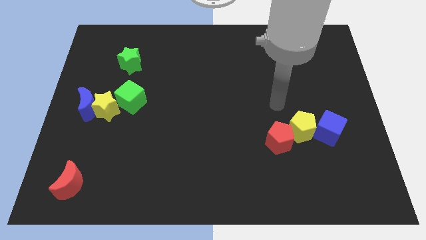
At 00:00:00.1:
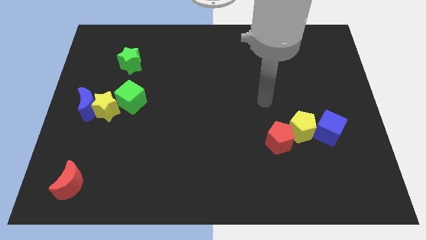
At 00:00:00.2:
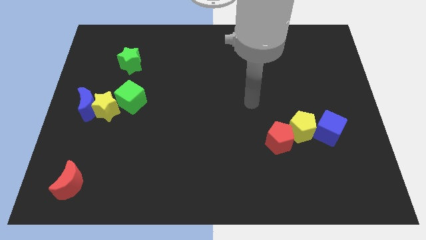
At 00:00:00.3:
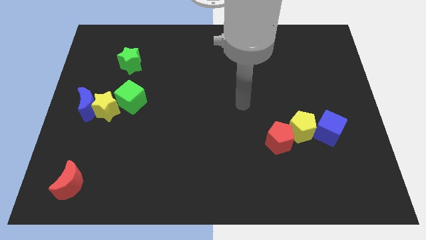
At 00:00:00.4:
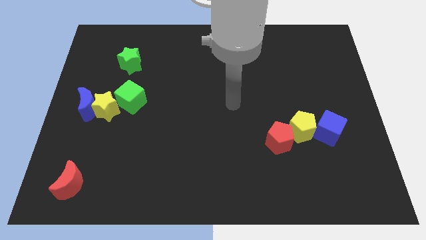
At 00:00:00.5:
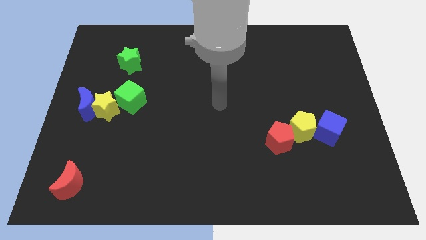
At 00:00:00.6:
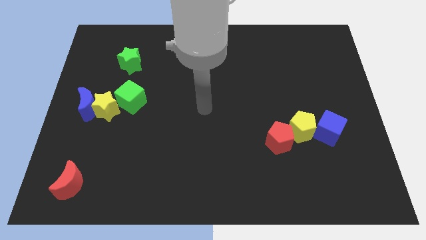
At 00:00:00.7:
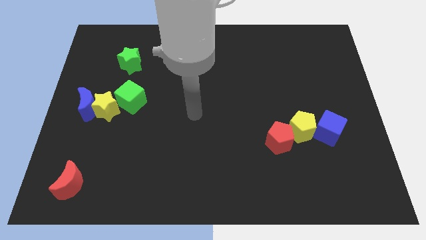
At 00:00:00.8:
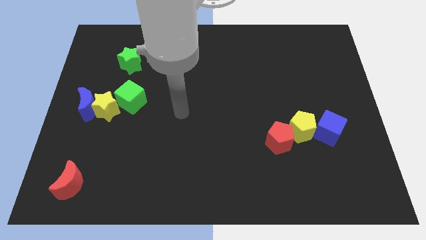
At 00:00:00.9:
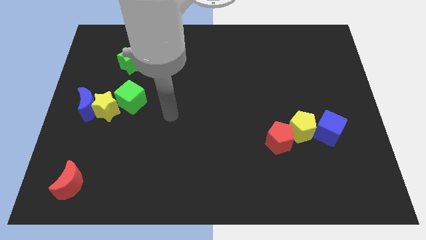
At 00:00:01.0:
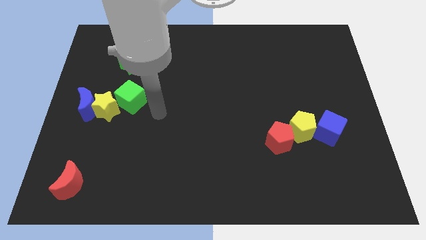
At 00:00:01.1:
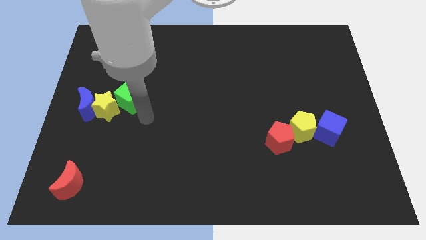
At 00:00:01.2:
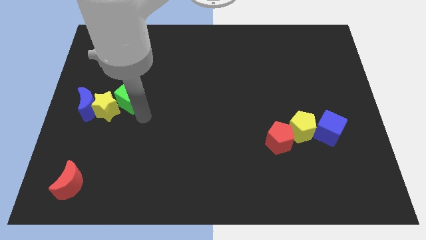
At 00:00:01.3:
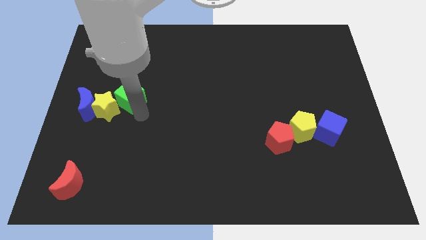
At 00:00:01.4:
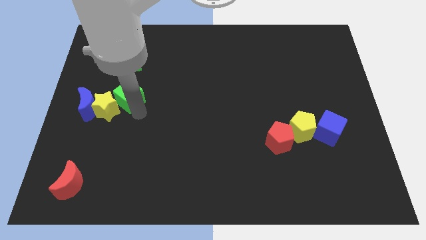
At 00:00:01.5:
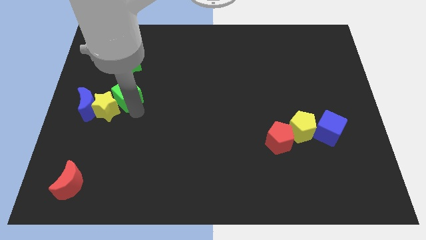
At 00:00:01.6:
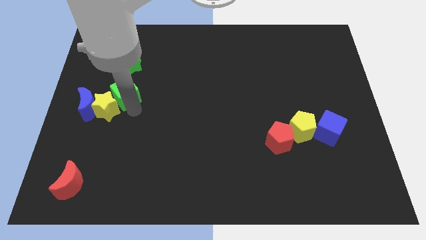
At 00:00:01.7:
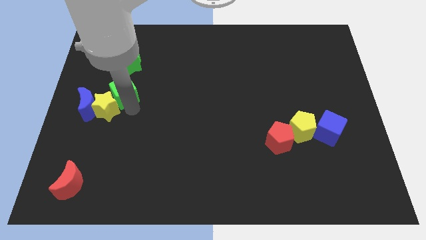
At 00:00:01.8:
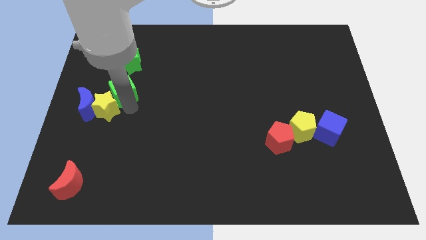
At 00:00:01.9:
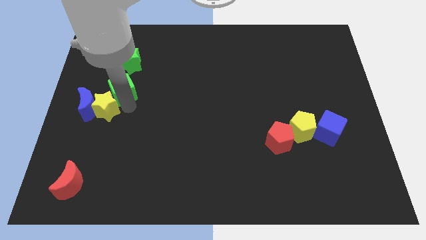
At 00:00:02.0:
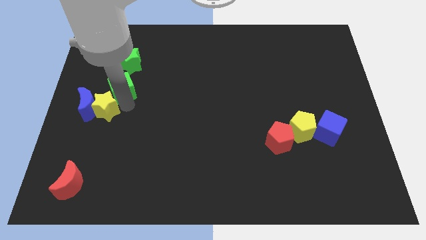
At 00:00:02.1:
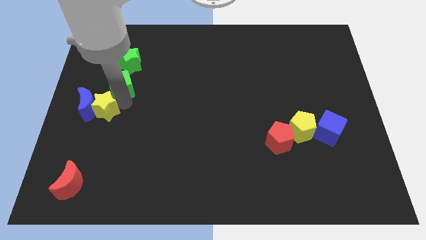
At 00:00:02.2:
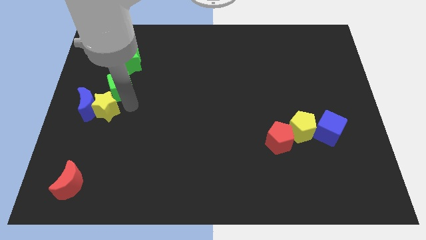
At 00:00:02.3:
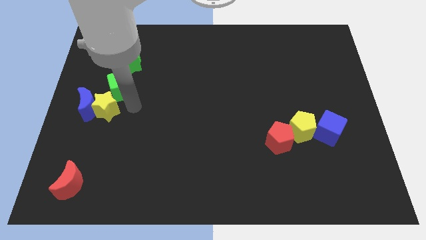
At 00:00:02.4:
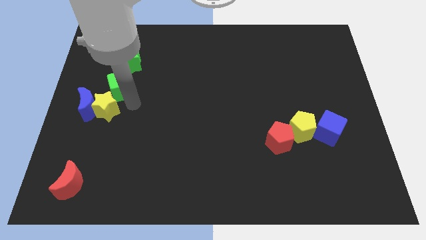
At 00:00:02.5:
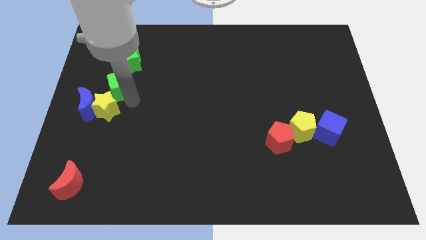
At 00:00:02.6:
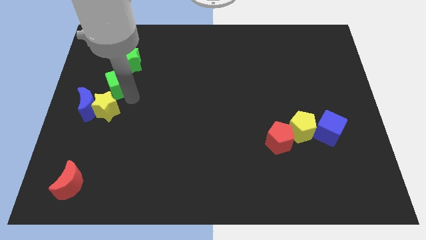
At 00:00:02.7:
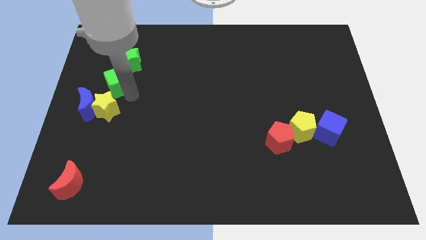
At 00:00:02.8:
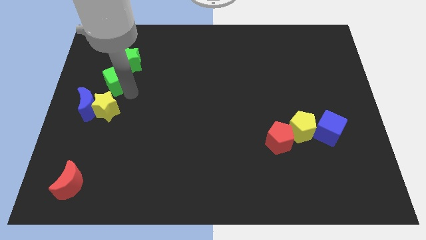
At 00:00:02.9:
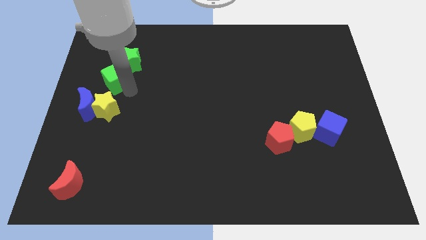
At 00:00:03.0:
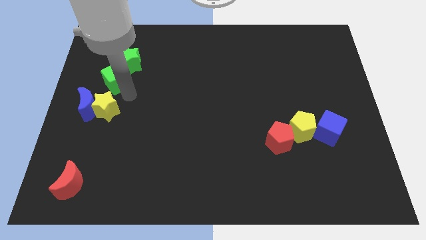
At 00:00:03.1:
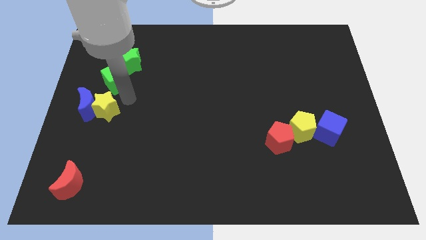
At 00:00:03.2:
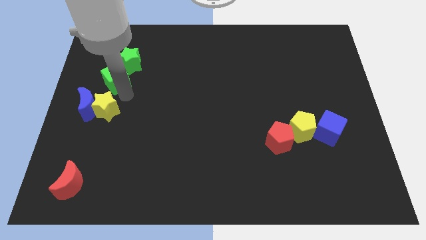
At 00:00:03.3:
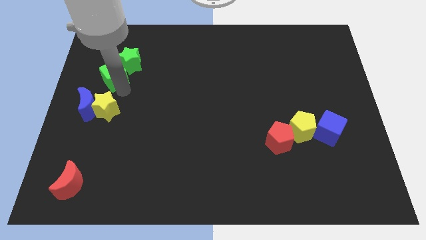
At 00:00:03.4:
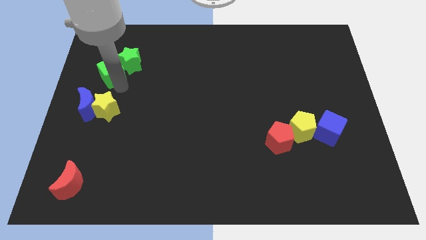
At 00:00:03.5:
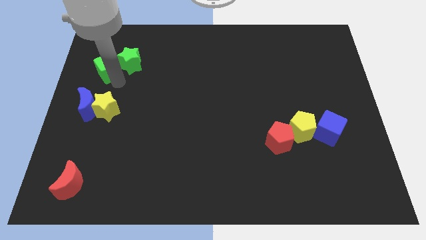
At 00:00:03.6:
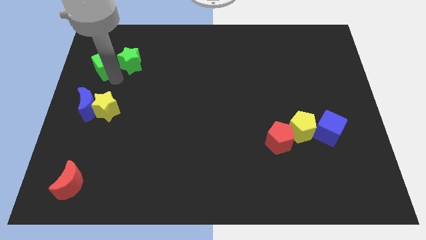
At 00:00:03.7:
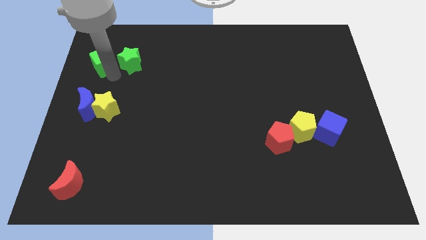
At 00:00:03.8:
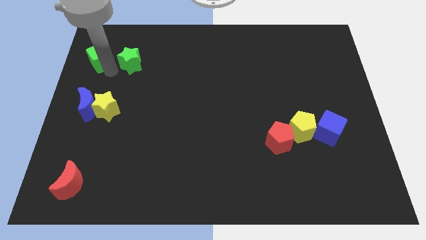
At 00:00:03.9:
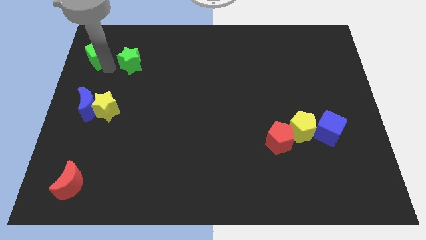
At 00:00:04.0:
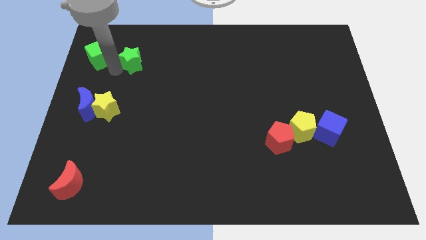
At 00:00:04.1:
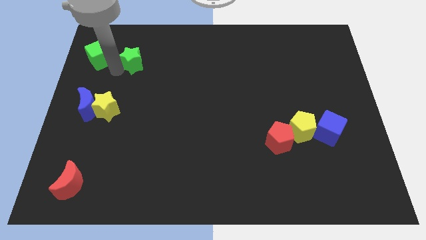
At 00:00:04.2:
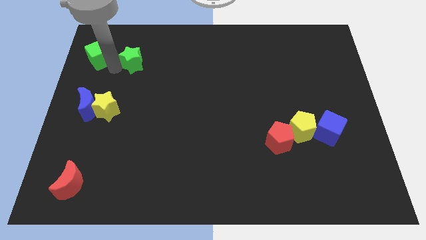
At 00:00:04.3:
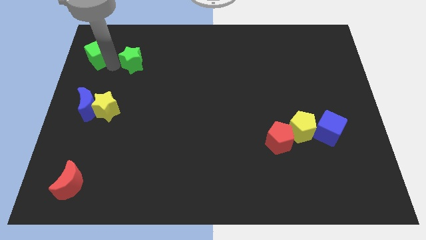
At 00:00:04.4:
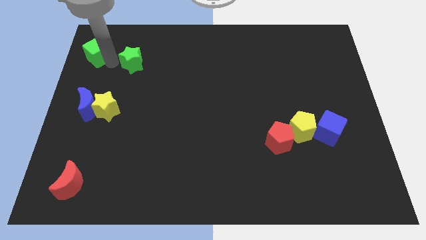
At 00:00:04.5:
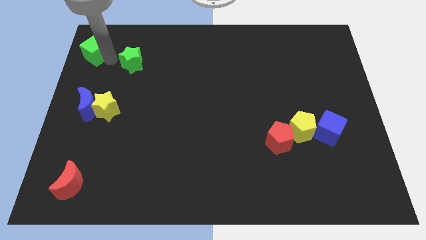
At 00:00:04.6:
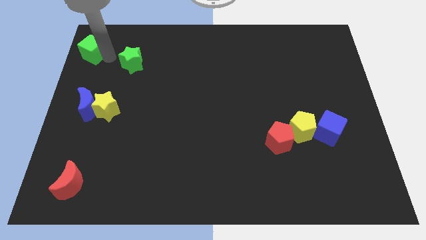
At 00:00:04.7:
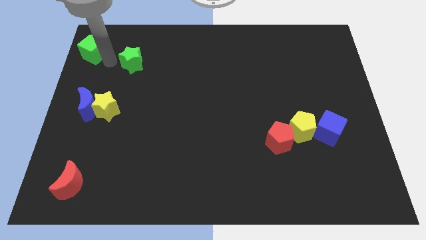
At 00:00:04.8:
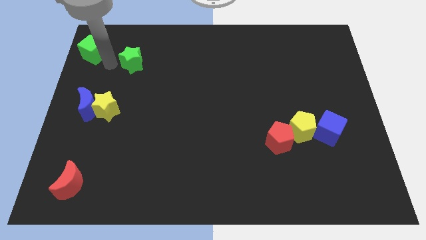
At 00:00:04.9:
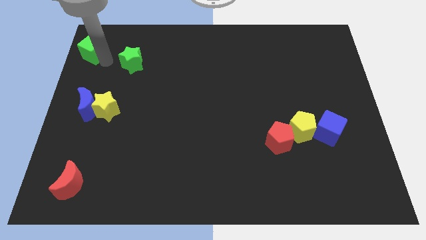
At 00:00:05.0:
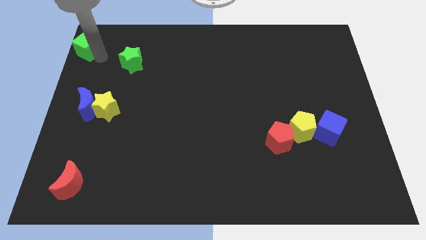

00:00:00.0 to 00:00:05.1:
move the green cube to the top left corner

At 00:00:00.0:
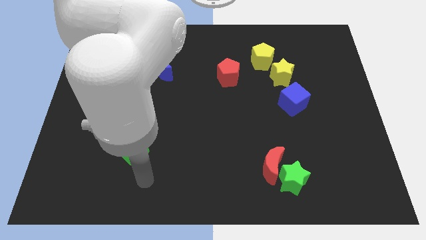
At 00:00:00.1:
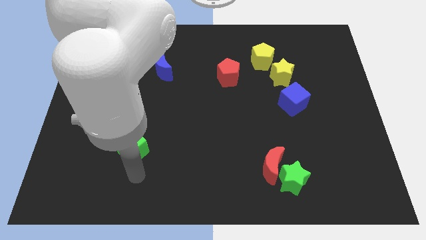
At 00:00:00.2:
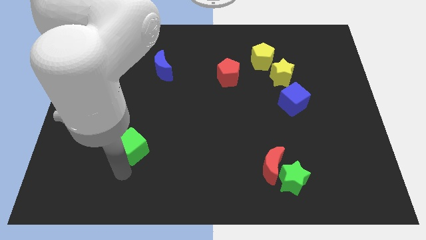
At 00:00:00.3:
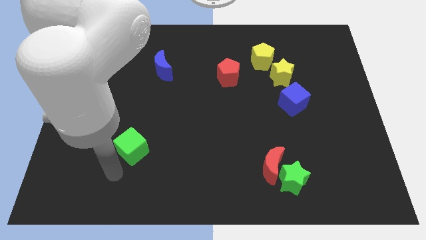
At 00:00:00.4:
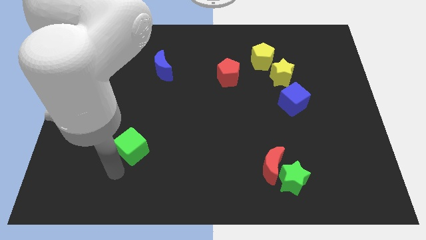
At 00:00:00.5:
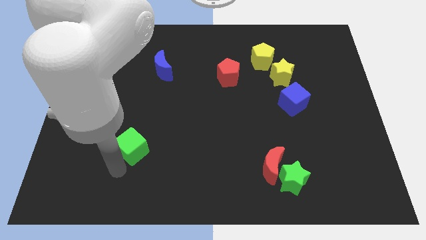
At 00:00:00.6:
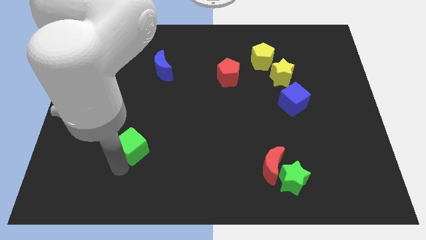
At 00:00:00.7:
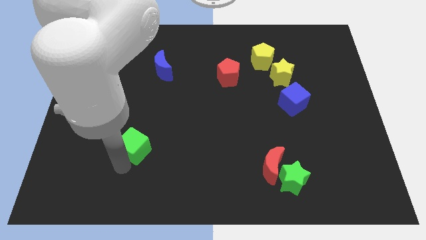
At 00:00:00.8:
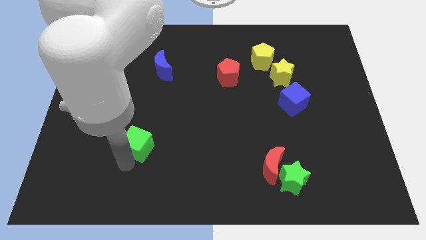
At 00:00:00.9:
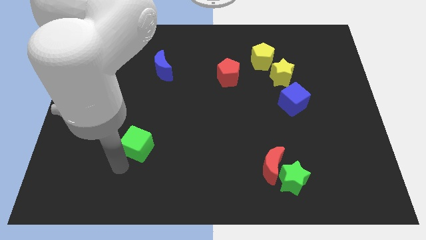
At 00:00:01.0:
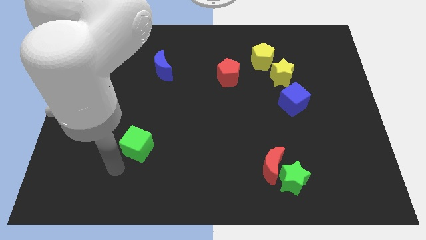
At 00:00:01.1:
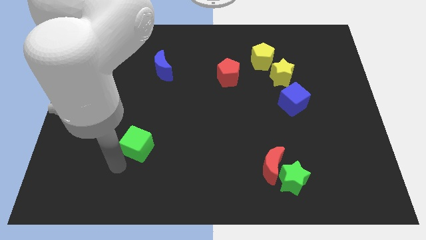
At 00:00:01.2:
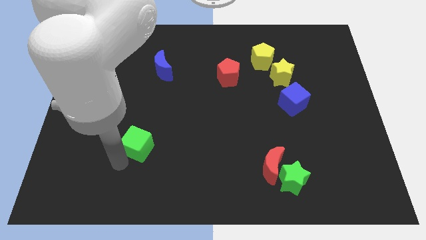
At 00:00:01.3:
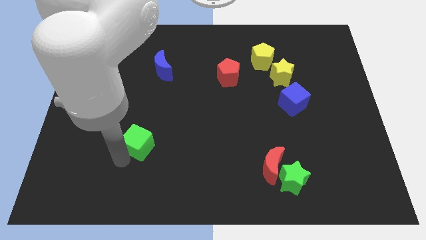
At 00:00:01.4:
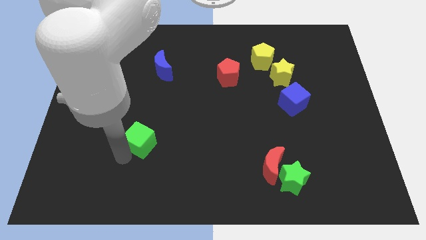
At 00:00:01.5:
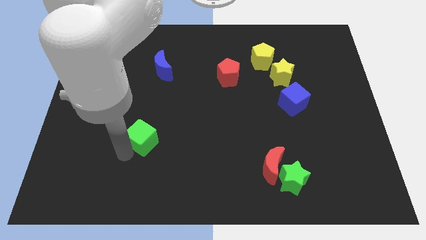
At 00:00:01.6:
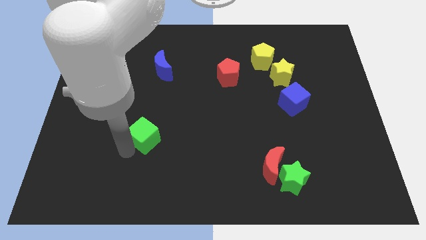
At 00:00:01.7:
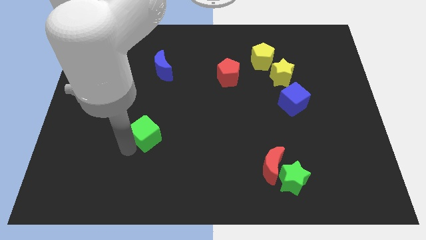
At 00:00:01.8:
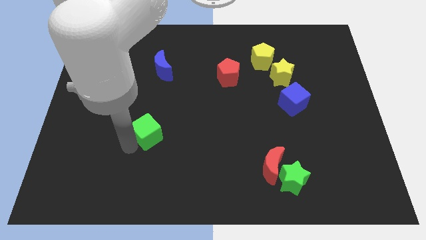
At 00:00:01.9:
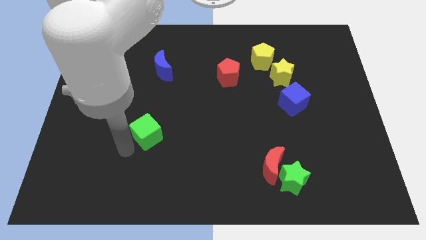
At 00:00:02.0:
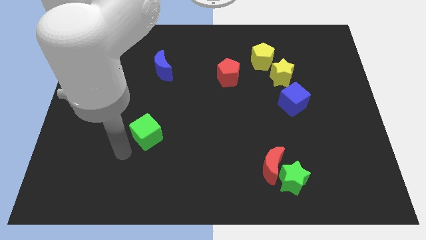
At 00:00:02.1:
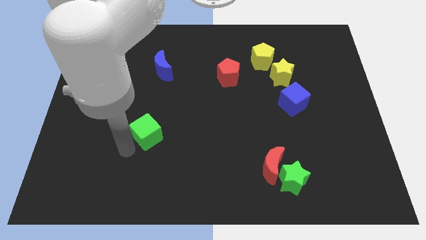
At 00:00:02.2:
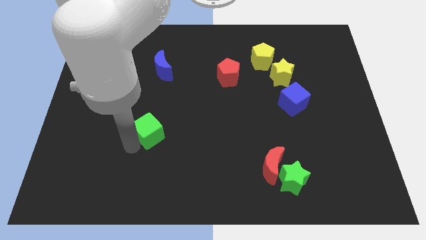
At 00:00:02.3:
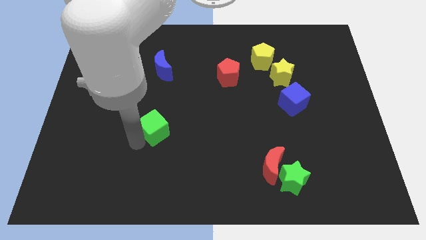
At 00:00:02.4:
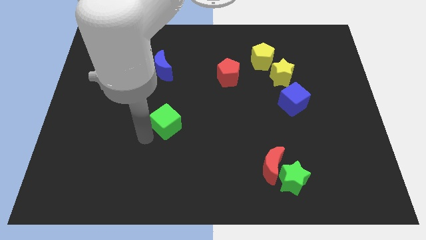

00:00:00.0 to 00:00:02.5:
move the green cube to the center
